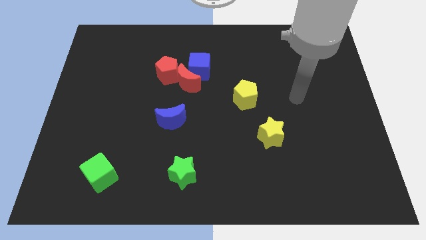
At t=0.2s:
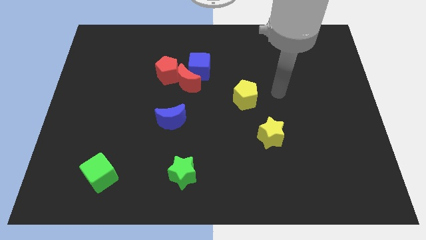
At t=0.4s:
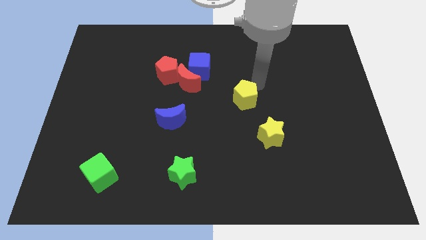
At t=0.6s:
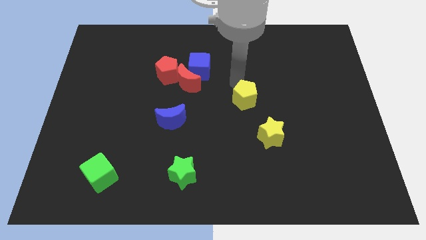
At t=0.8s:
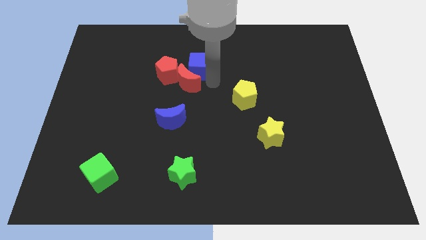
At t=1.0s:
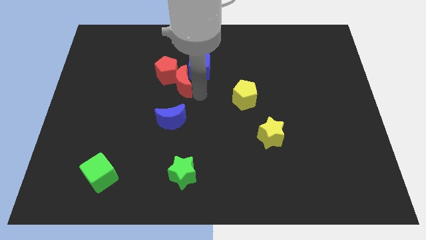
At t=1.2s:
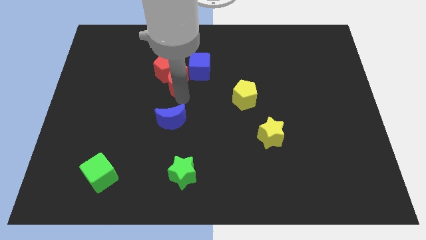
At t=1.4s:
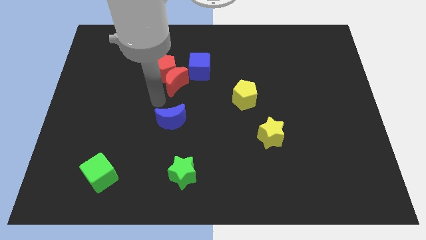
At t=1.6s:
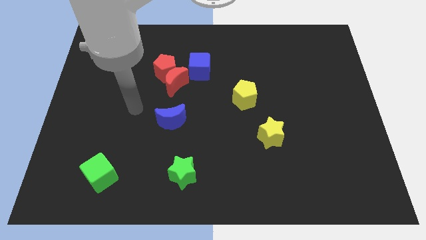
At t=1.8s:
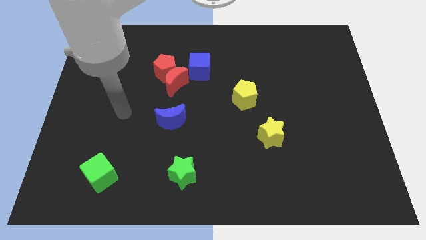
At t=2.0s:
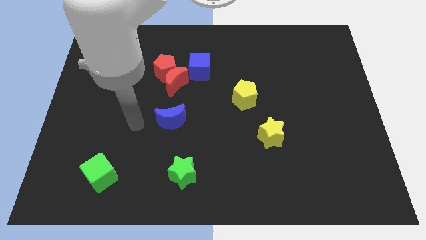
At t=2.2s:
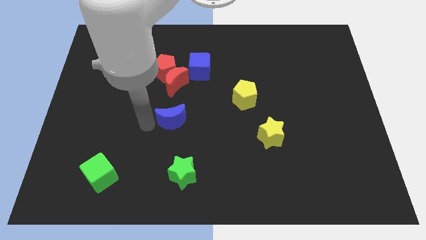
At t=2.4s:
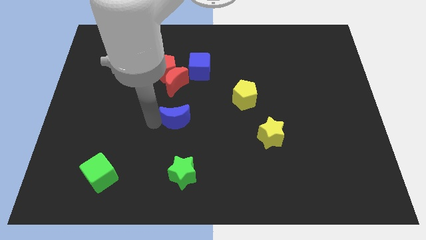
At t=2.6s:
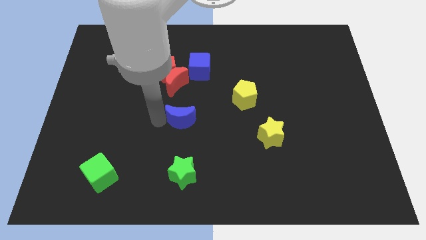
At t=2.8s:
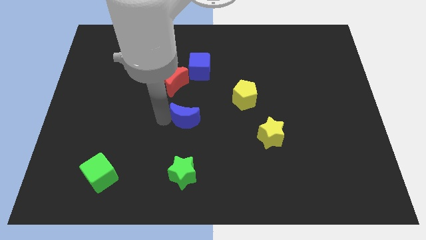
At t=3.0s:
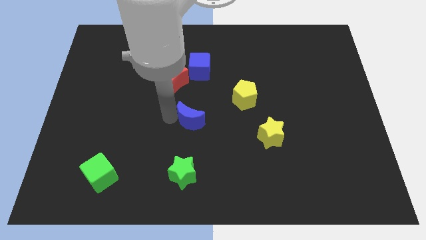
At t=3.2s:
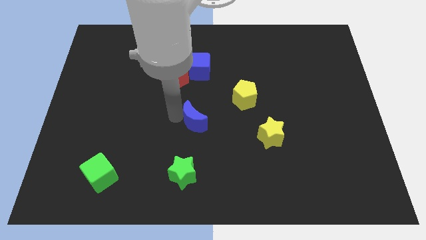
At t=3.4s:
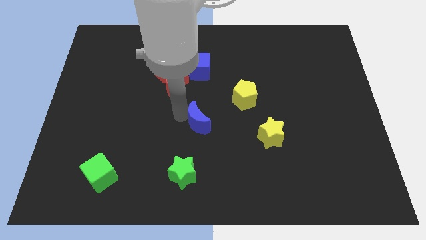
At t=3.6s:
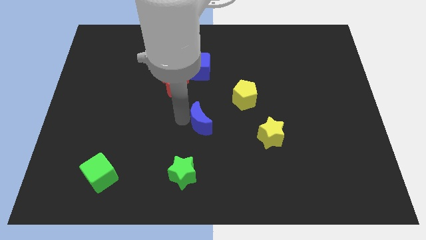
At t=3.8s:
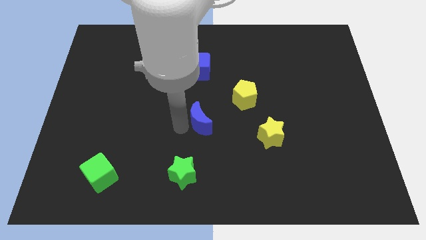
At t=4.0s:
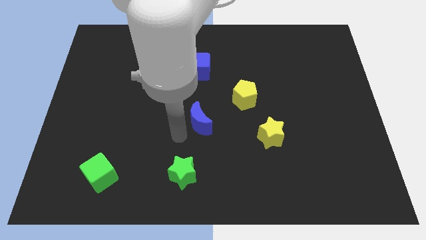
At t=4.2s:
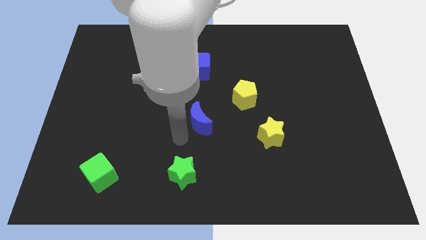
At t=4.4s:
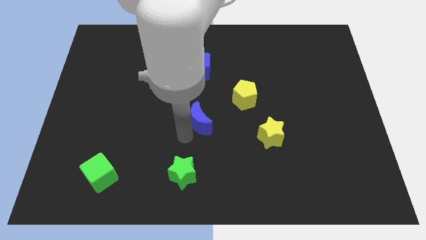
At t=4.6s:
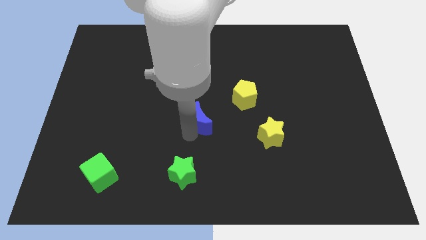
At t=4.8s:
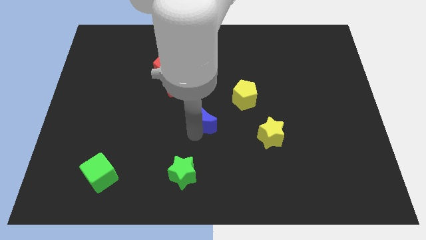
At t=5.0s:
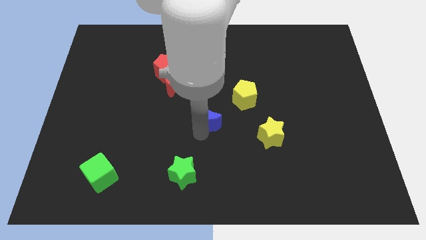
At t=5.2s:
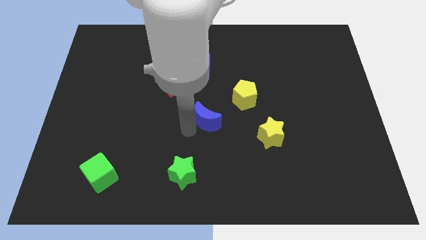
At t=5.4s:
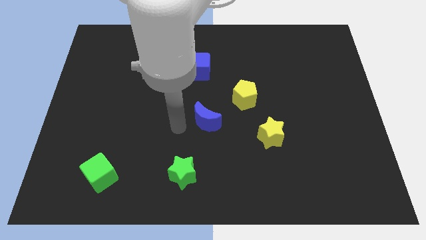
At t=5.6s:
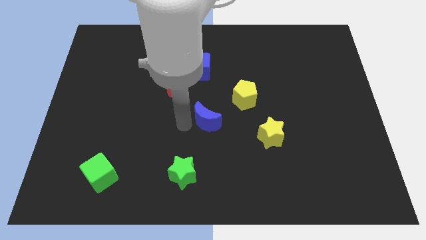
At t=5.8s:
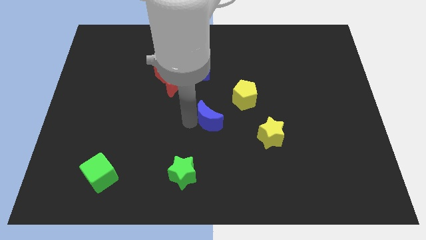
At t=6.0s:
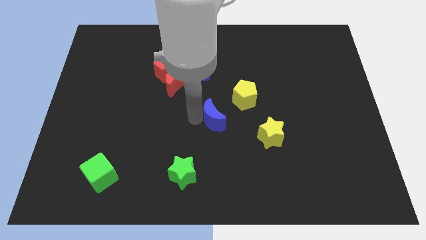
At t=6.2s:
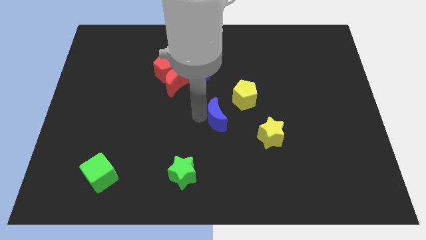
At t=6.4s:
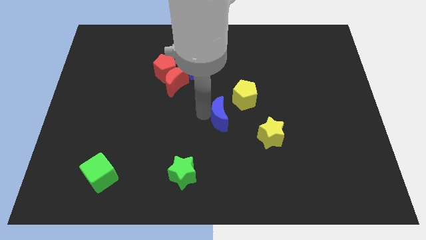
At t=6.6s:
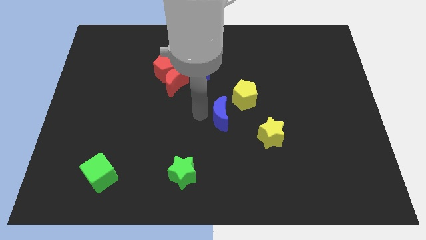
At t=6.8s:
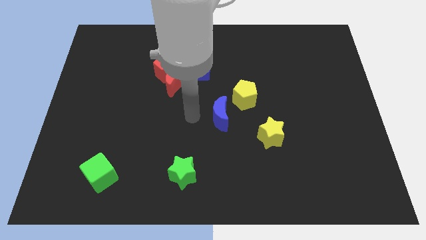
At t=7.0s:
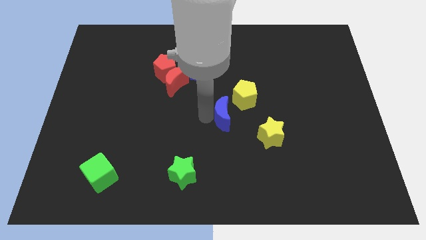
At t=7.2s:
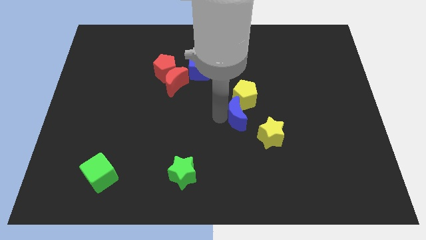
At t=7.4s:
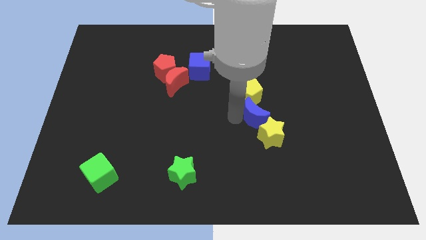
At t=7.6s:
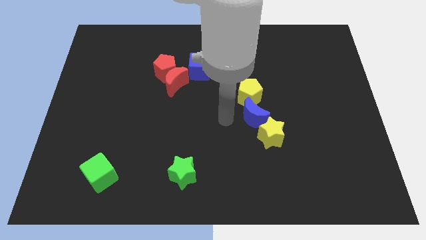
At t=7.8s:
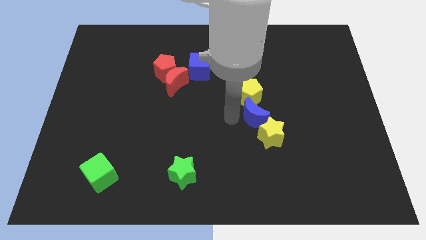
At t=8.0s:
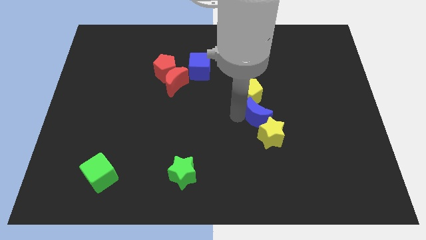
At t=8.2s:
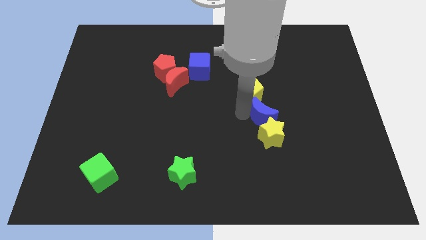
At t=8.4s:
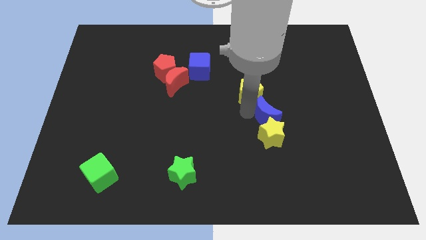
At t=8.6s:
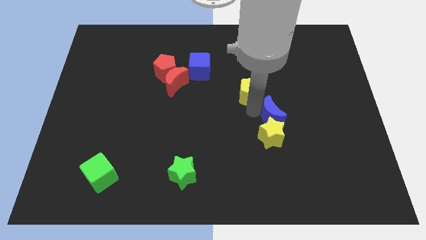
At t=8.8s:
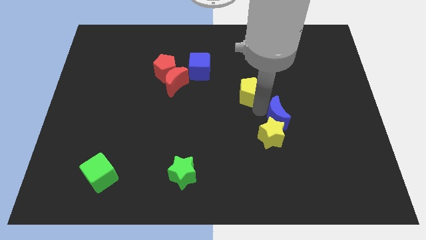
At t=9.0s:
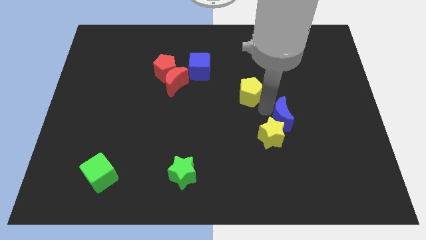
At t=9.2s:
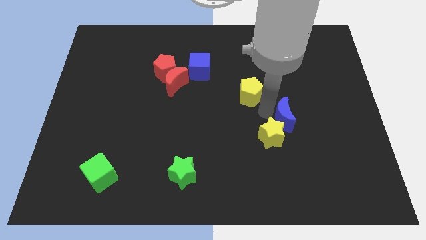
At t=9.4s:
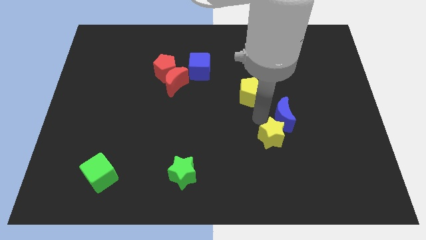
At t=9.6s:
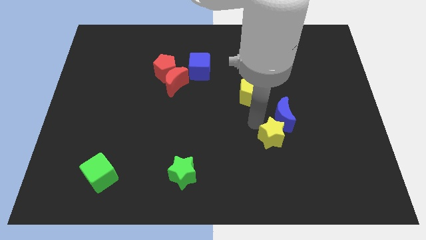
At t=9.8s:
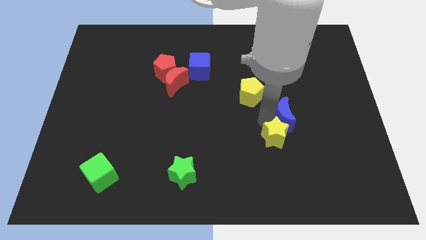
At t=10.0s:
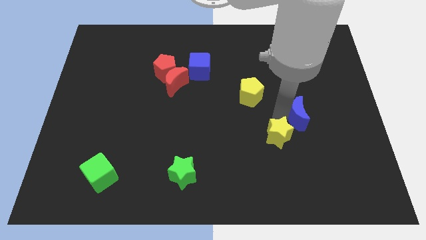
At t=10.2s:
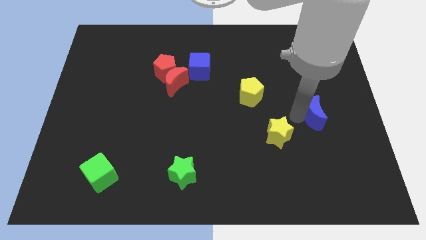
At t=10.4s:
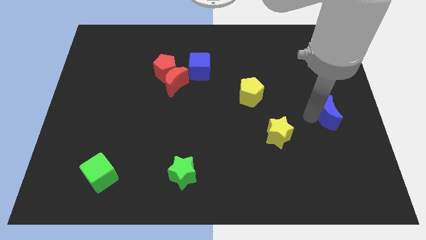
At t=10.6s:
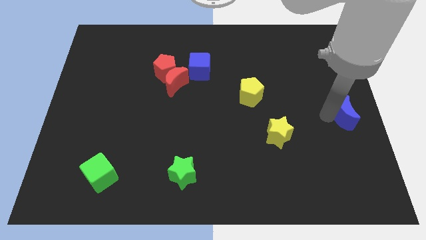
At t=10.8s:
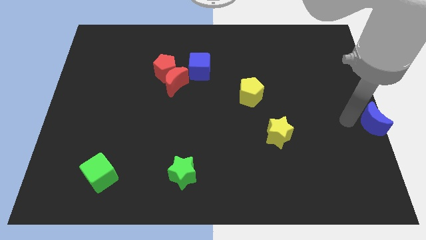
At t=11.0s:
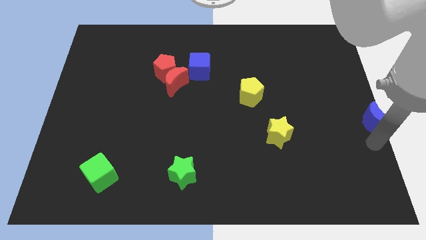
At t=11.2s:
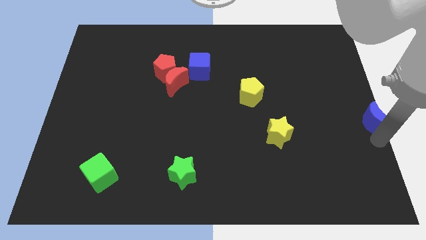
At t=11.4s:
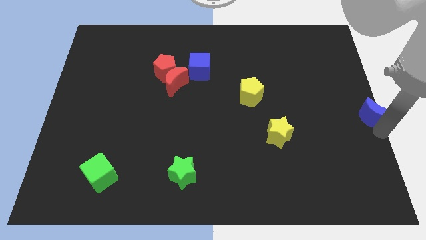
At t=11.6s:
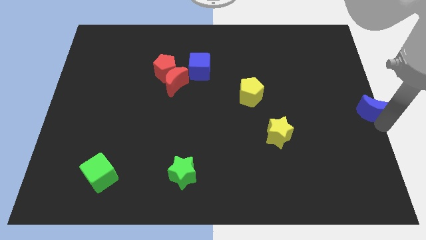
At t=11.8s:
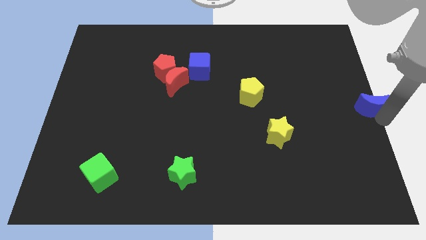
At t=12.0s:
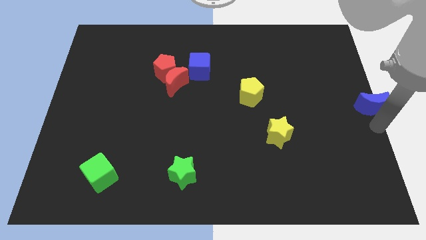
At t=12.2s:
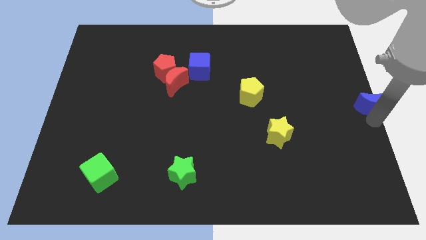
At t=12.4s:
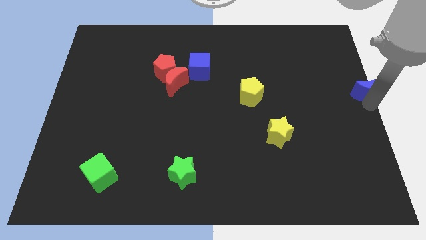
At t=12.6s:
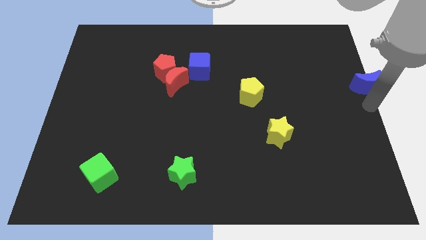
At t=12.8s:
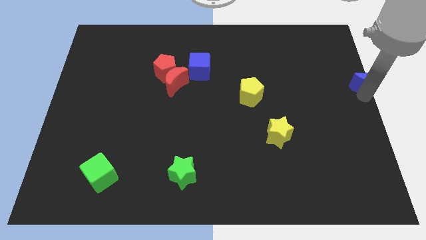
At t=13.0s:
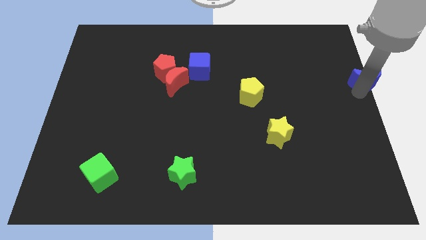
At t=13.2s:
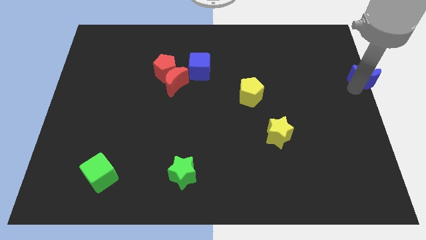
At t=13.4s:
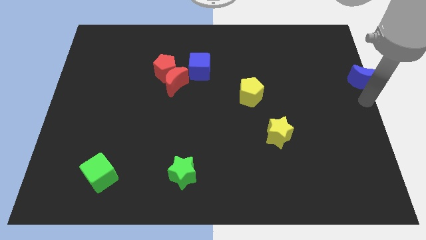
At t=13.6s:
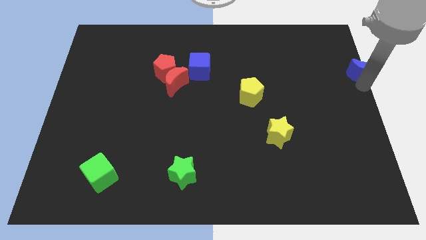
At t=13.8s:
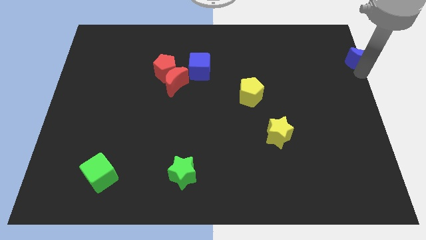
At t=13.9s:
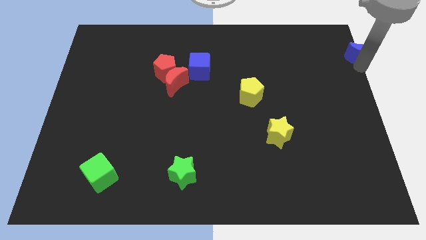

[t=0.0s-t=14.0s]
slide the blue moon to the upper right corner

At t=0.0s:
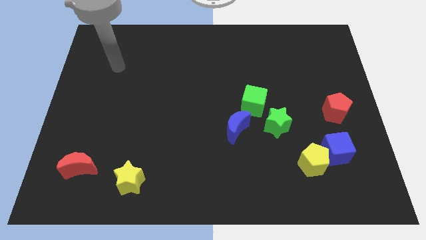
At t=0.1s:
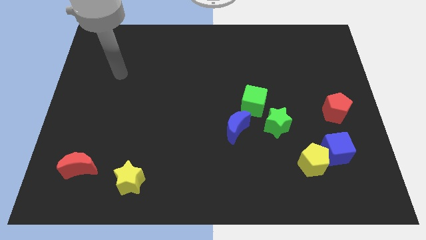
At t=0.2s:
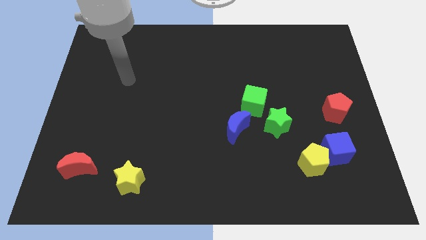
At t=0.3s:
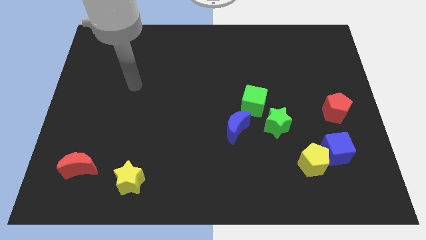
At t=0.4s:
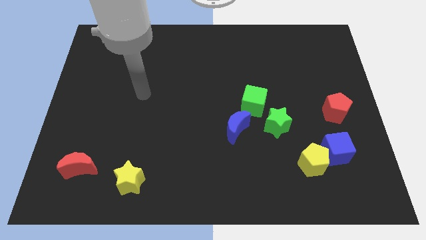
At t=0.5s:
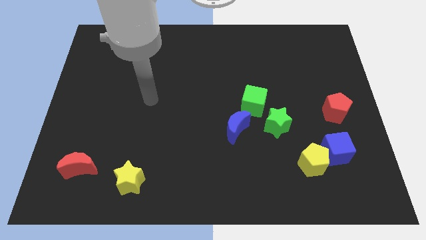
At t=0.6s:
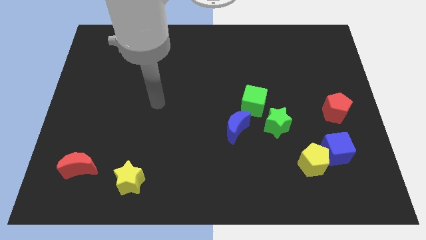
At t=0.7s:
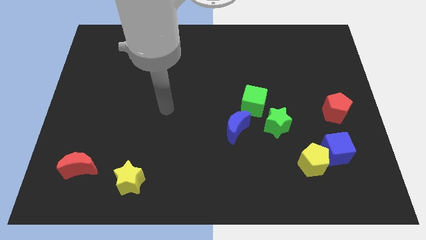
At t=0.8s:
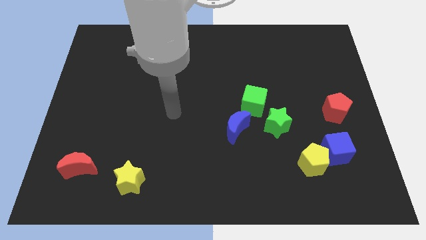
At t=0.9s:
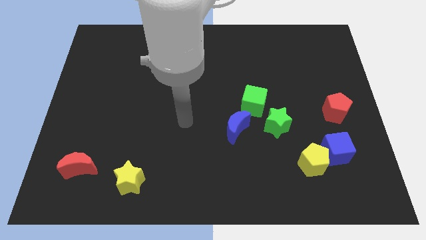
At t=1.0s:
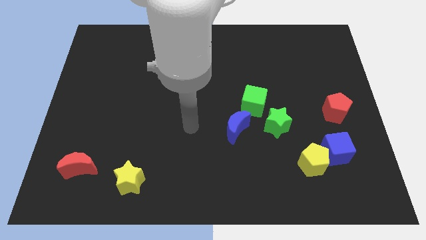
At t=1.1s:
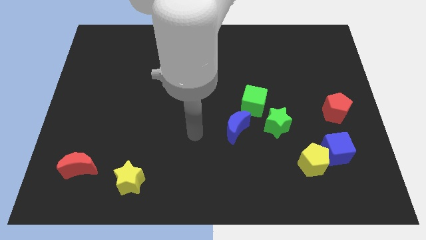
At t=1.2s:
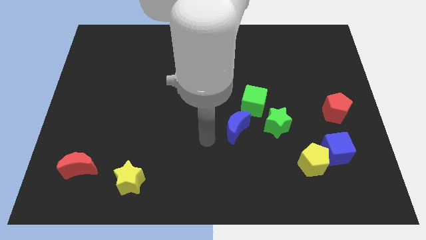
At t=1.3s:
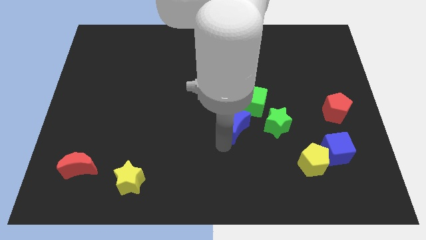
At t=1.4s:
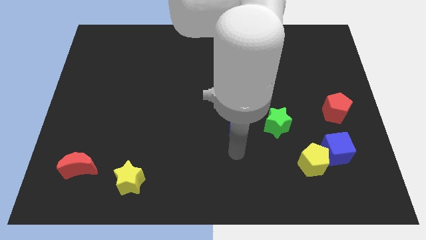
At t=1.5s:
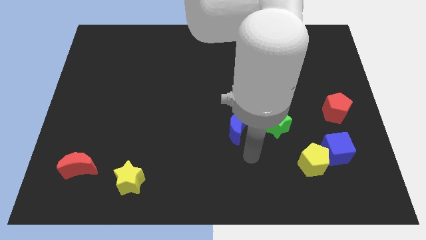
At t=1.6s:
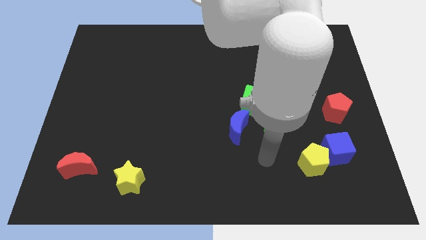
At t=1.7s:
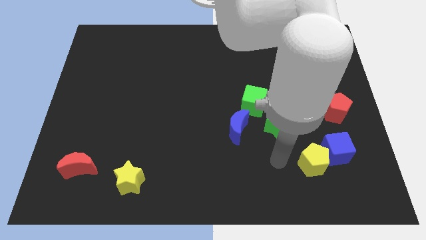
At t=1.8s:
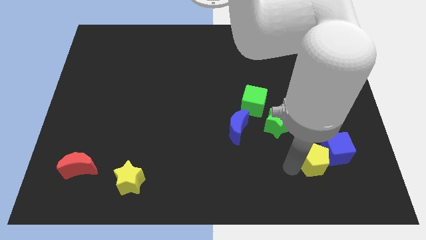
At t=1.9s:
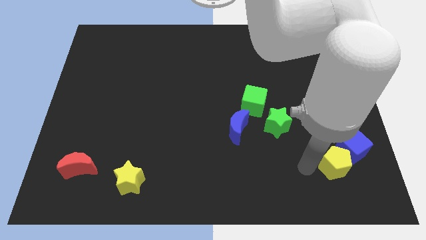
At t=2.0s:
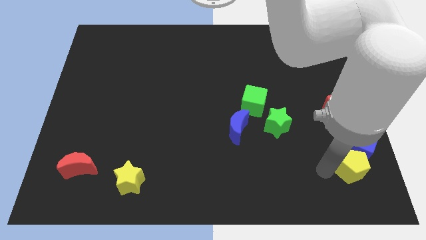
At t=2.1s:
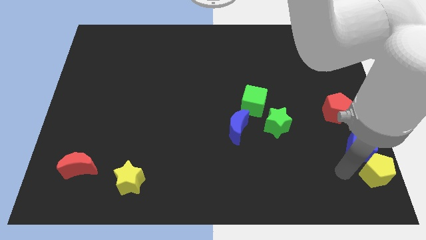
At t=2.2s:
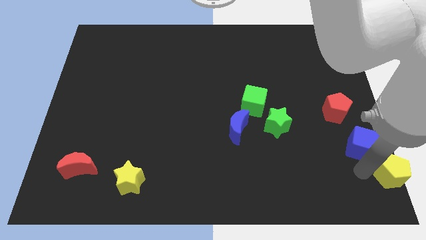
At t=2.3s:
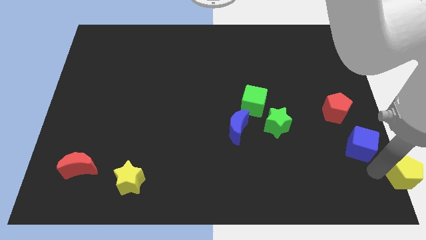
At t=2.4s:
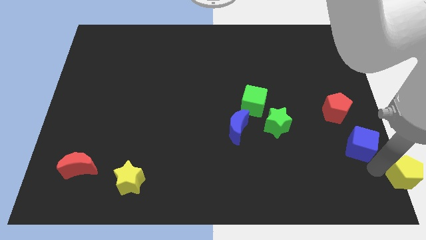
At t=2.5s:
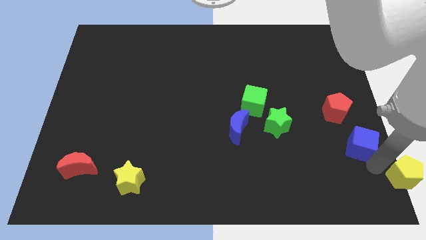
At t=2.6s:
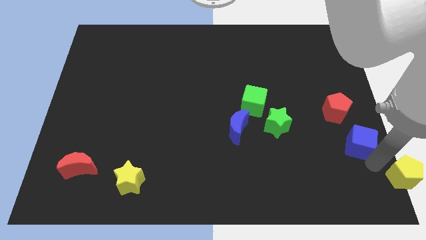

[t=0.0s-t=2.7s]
slide the blue cube to the right side
